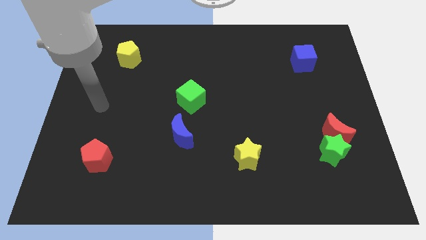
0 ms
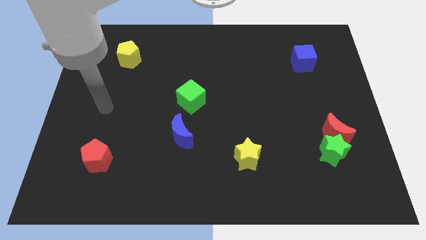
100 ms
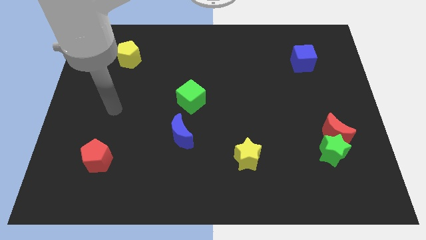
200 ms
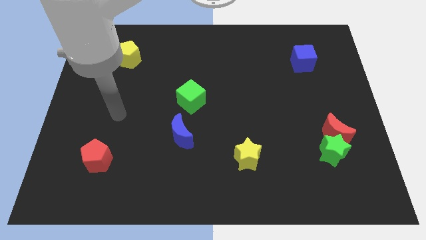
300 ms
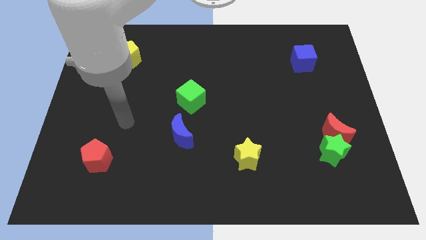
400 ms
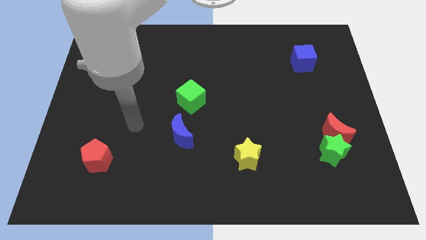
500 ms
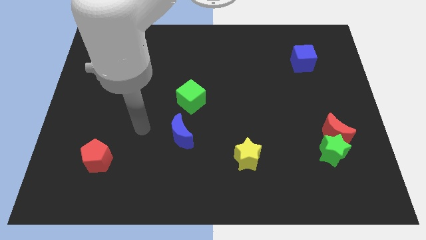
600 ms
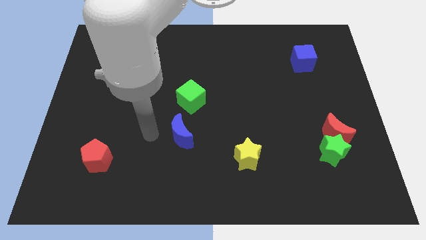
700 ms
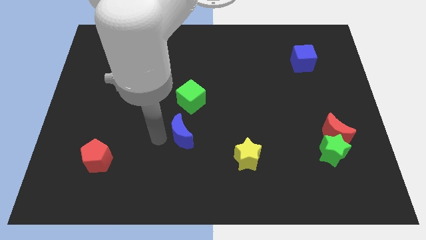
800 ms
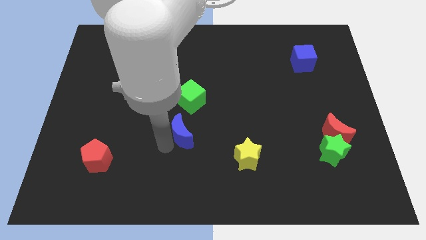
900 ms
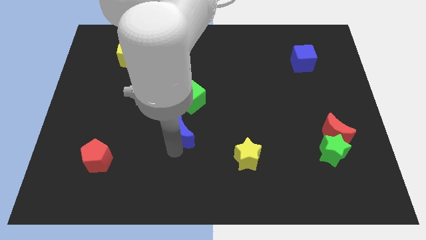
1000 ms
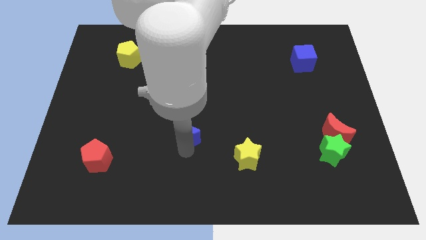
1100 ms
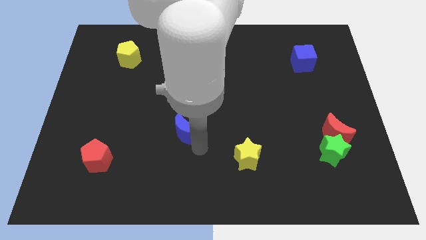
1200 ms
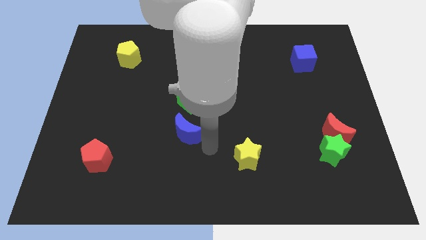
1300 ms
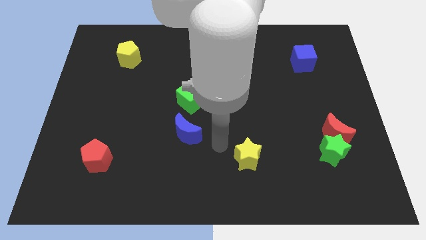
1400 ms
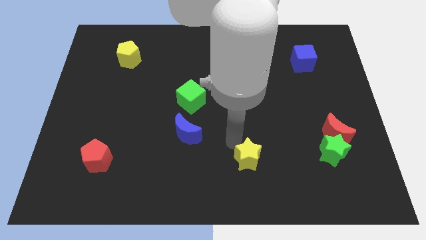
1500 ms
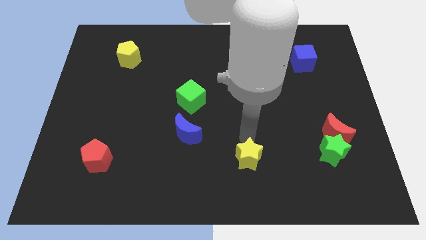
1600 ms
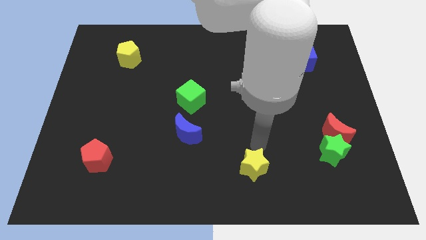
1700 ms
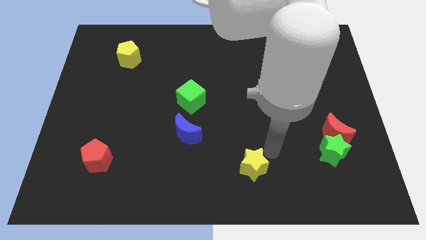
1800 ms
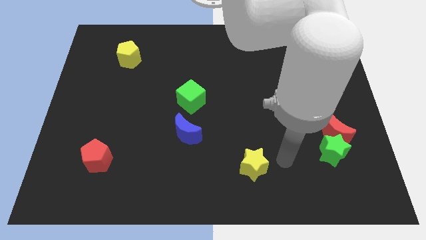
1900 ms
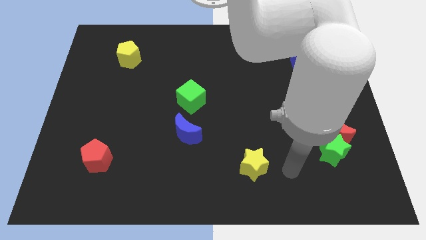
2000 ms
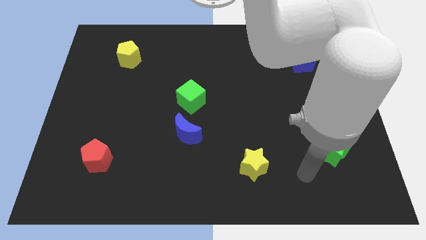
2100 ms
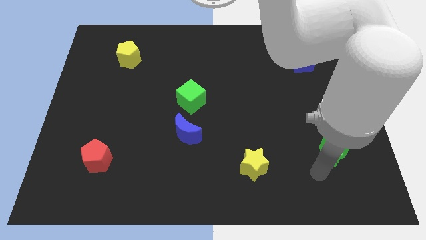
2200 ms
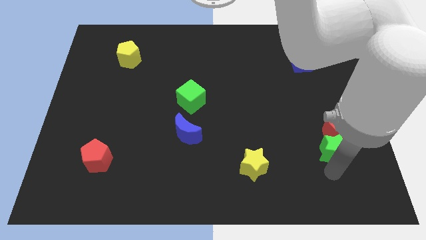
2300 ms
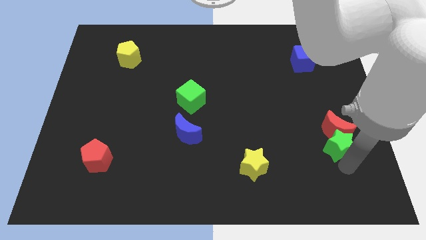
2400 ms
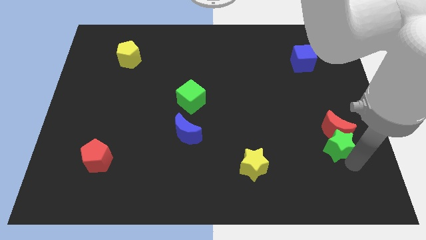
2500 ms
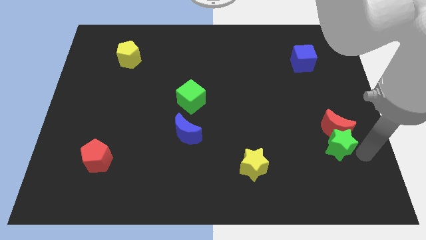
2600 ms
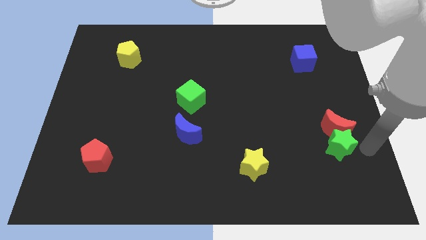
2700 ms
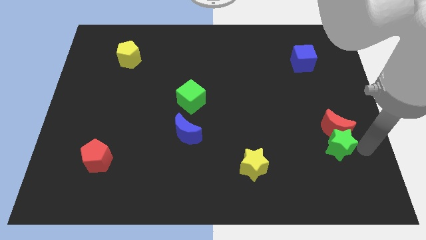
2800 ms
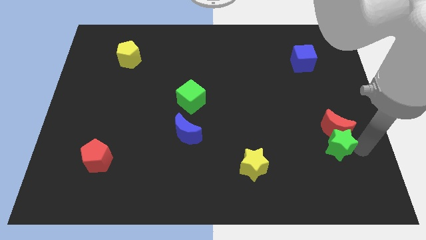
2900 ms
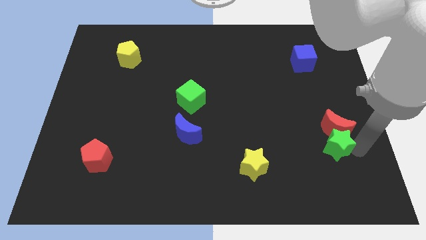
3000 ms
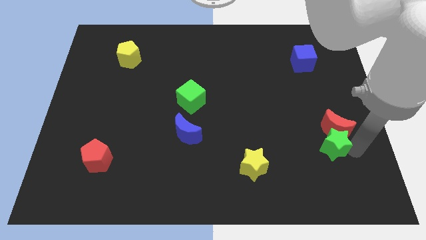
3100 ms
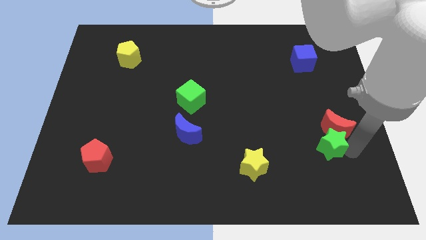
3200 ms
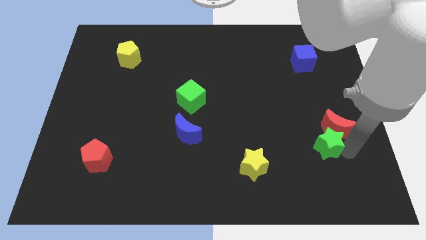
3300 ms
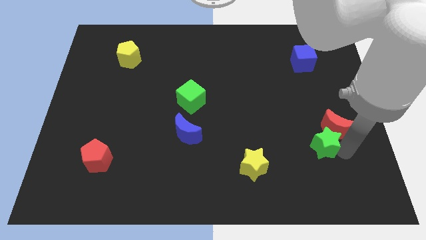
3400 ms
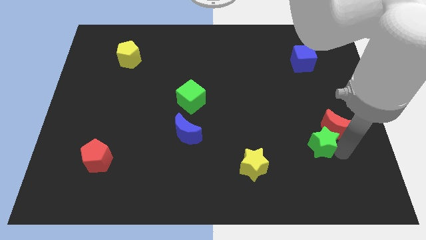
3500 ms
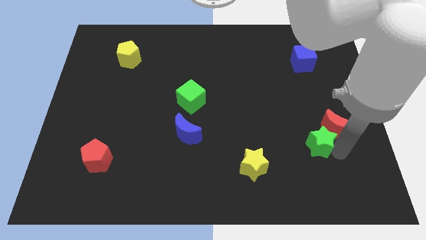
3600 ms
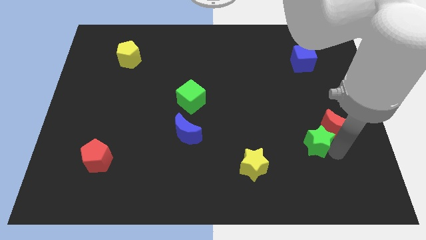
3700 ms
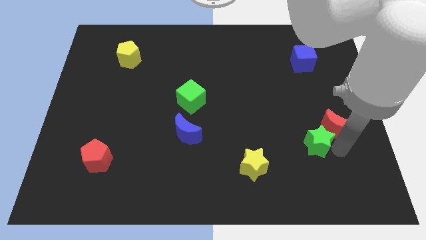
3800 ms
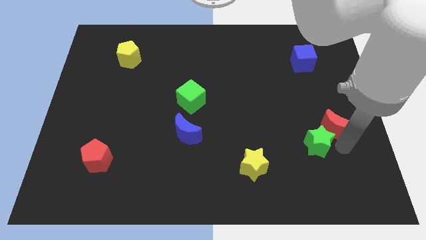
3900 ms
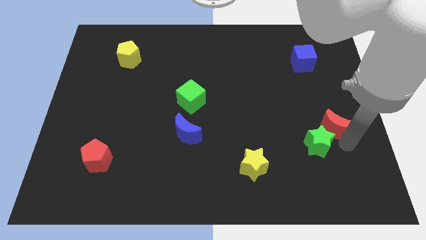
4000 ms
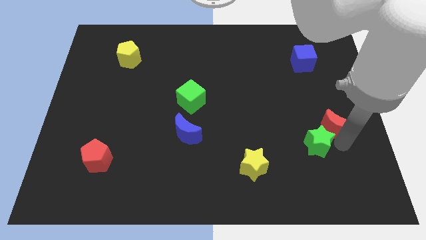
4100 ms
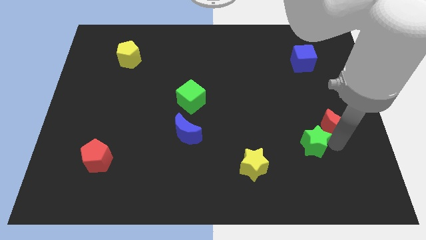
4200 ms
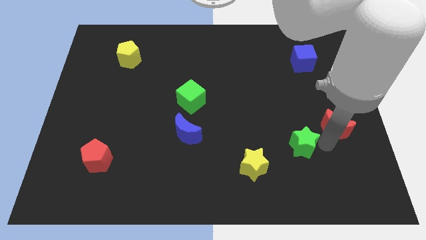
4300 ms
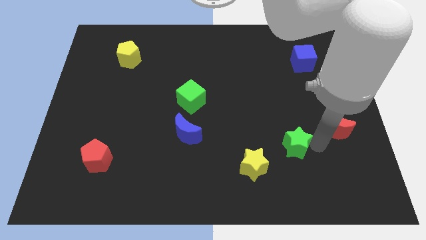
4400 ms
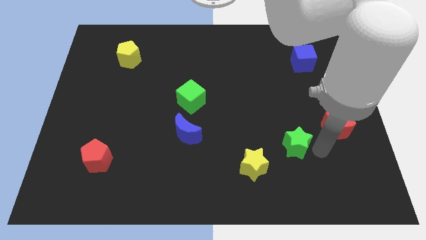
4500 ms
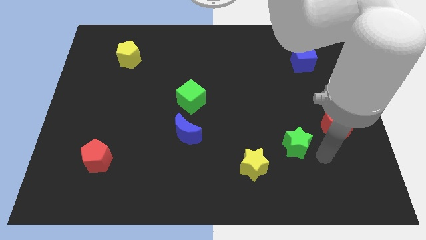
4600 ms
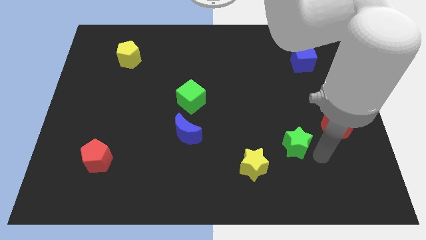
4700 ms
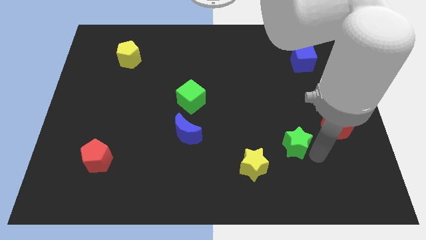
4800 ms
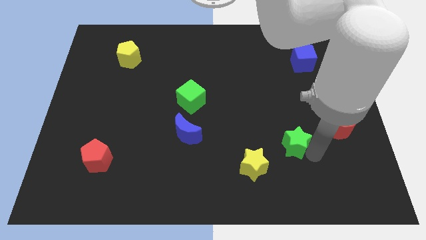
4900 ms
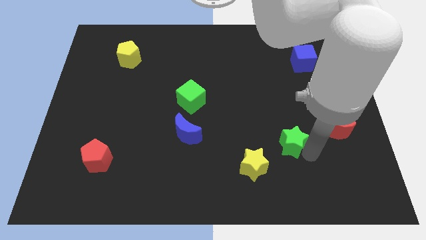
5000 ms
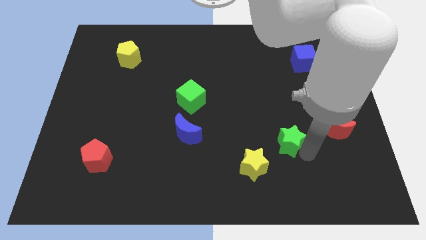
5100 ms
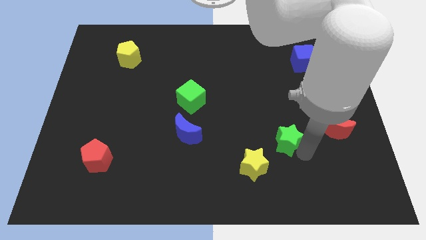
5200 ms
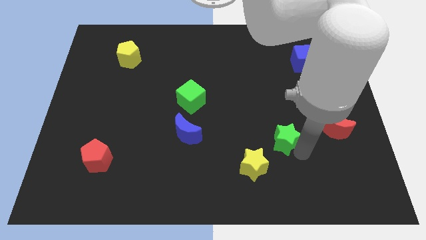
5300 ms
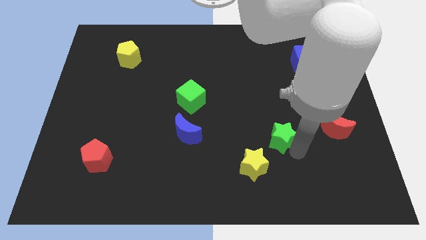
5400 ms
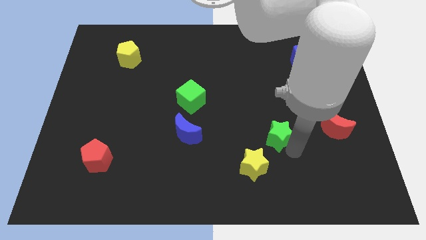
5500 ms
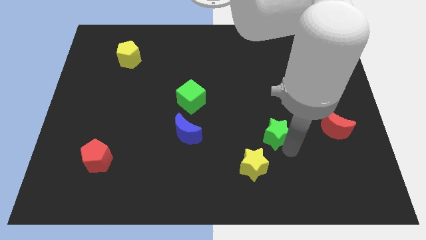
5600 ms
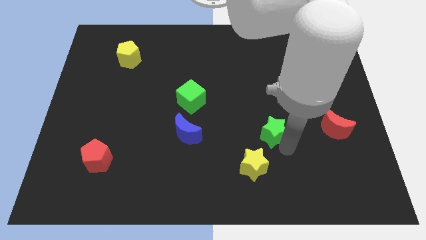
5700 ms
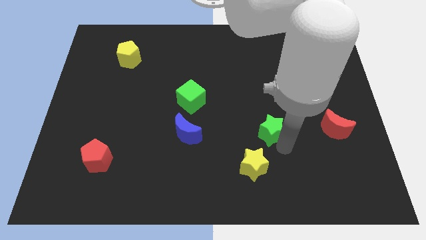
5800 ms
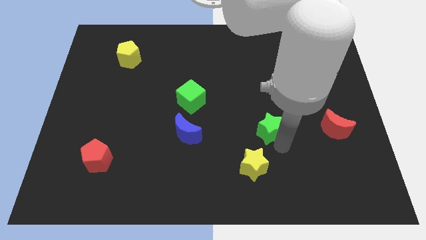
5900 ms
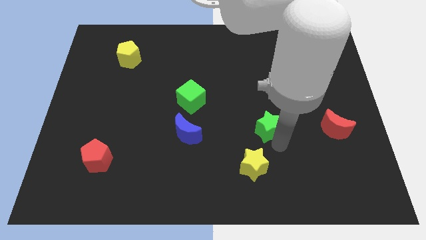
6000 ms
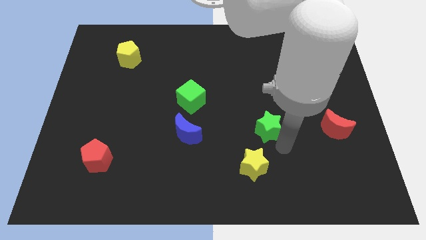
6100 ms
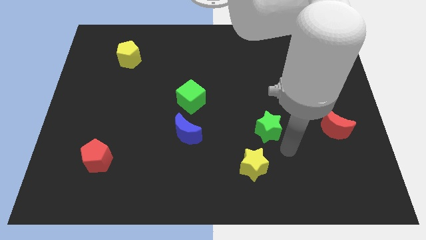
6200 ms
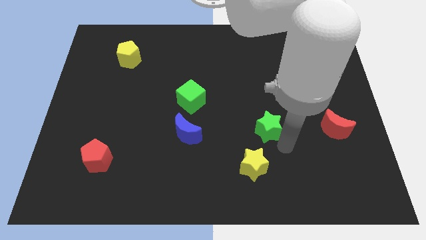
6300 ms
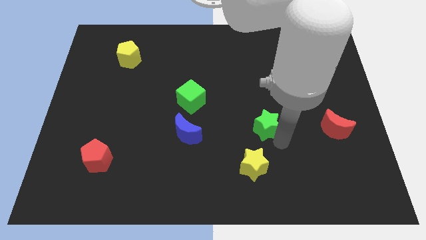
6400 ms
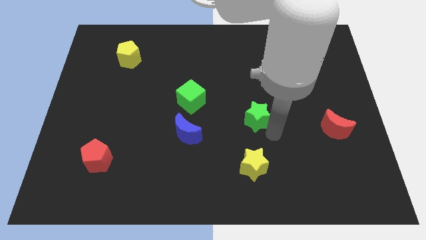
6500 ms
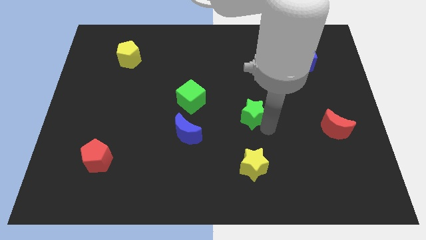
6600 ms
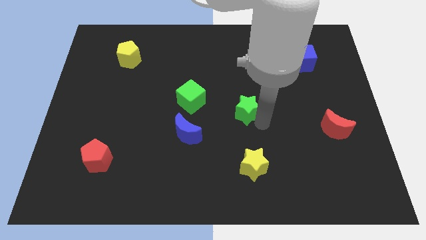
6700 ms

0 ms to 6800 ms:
push the green star right of the green cube

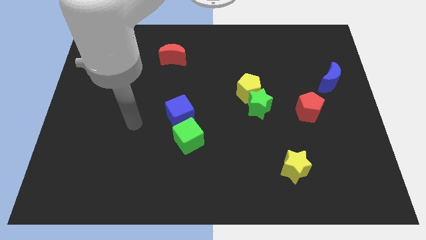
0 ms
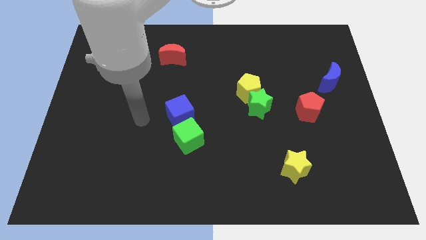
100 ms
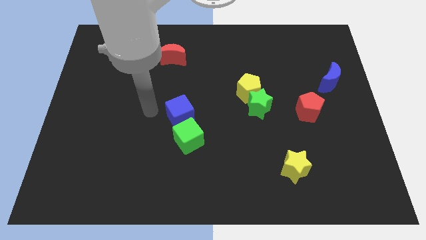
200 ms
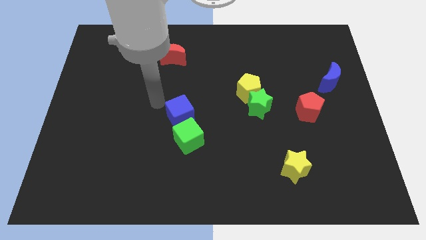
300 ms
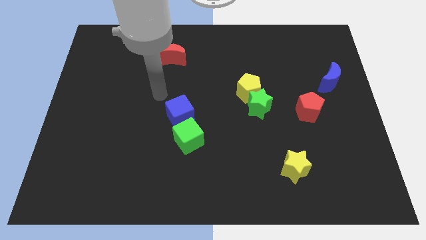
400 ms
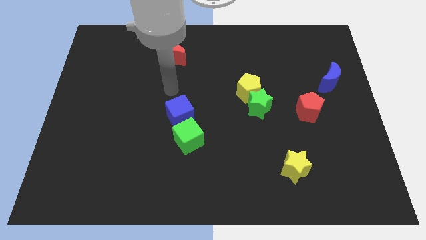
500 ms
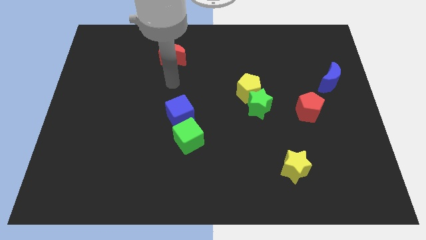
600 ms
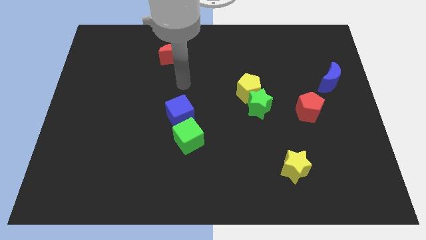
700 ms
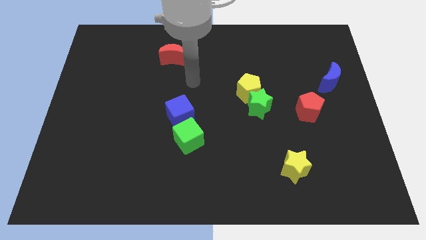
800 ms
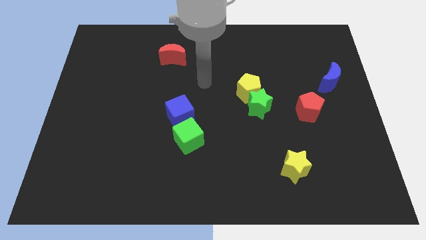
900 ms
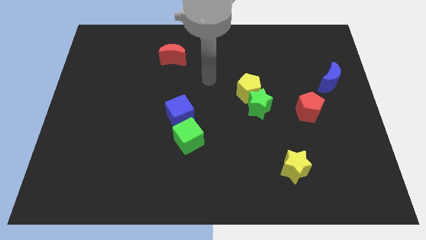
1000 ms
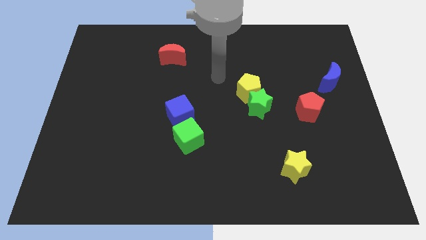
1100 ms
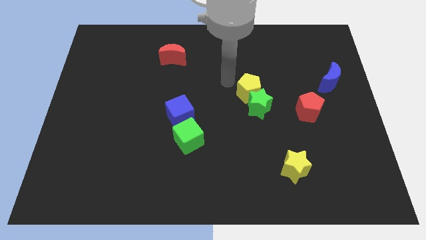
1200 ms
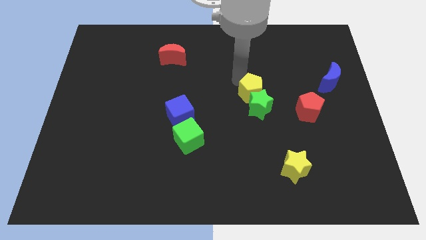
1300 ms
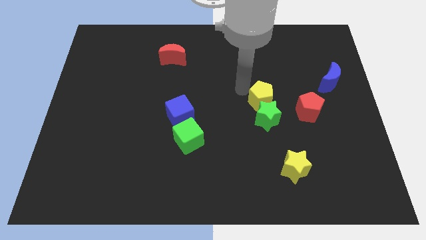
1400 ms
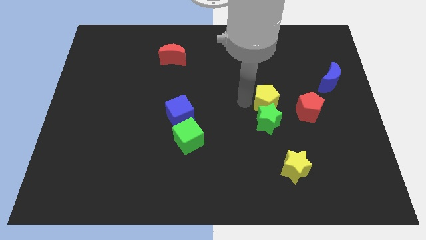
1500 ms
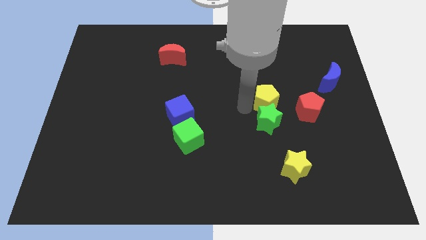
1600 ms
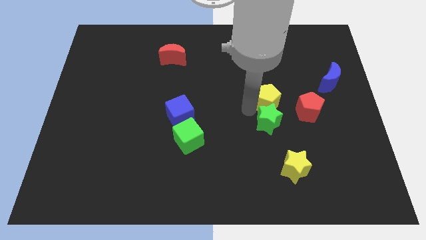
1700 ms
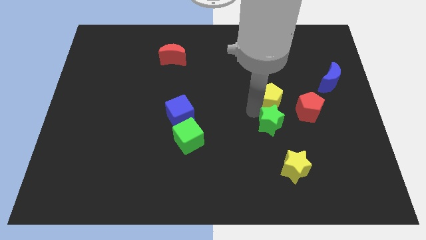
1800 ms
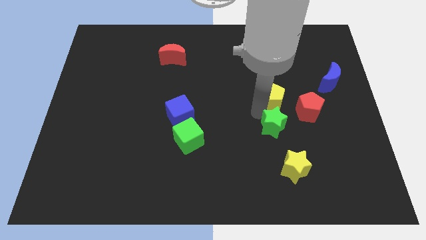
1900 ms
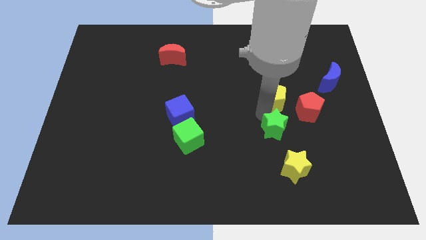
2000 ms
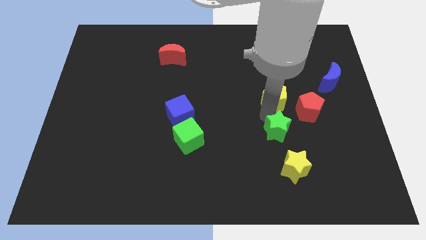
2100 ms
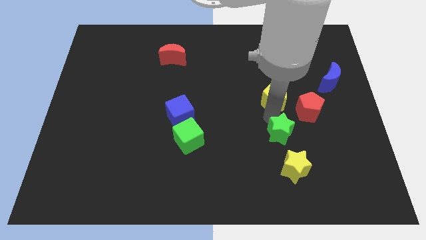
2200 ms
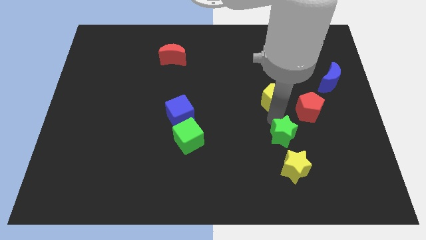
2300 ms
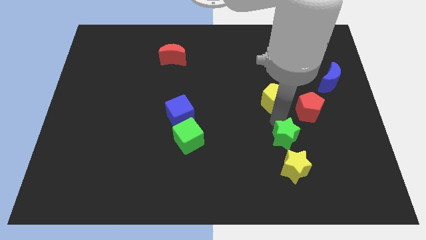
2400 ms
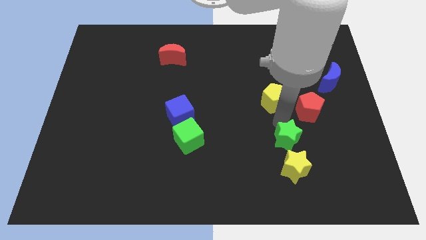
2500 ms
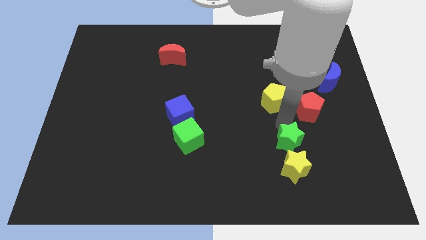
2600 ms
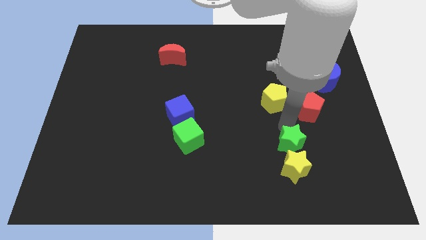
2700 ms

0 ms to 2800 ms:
move the green star diagonally up and to the right of the yellow star
